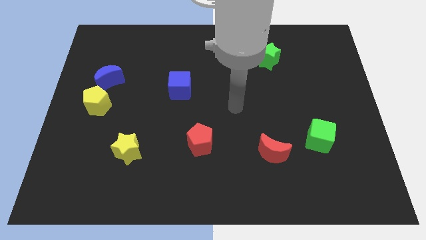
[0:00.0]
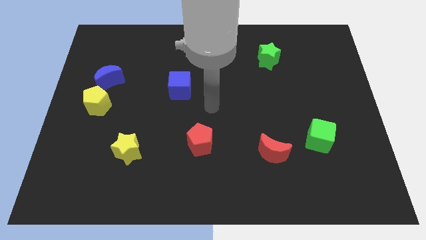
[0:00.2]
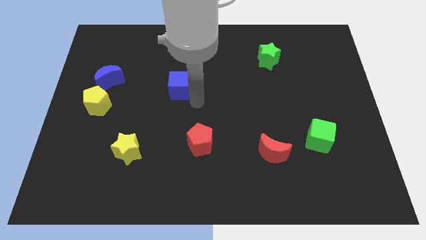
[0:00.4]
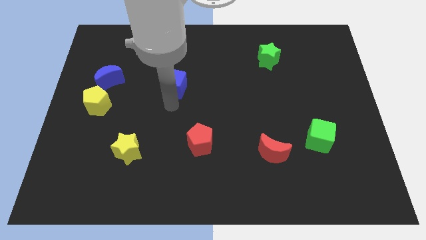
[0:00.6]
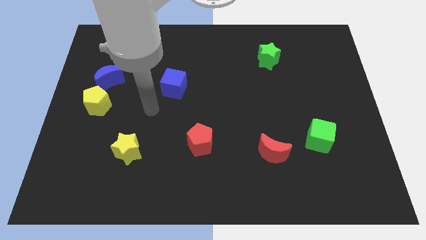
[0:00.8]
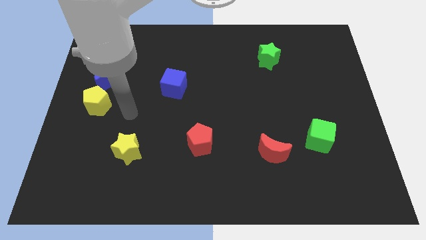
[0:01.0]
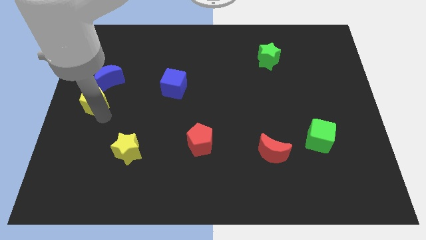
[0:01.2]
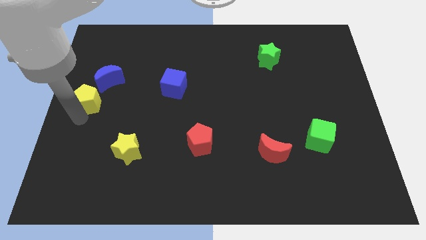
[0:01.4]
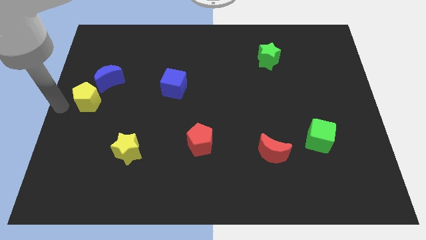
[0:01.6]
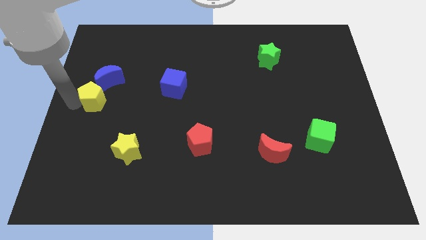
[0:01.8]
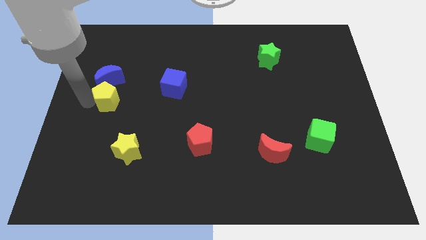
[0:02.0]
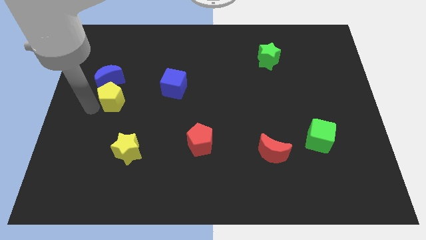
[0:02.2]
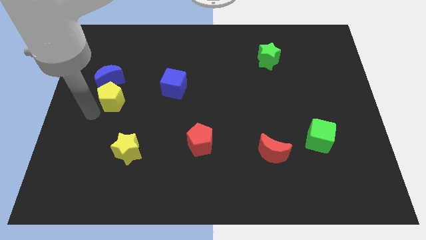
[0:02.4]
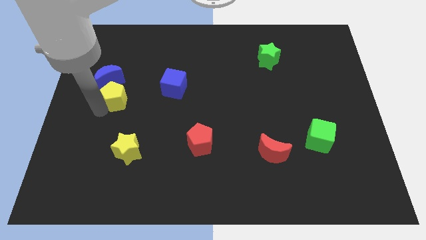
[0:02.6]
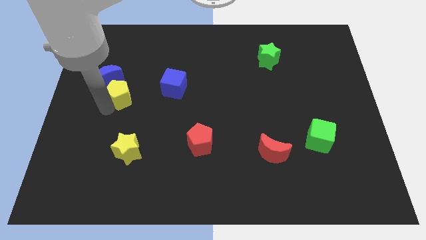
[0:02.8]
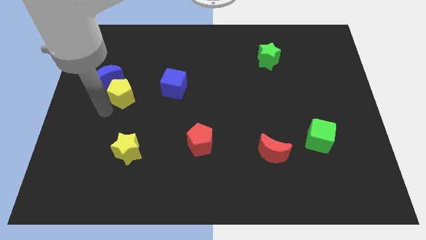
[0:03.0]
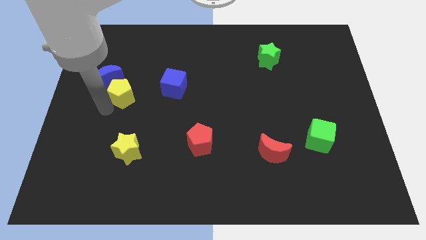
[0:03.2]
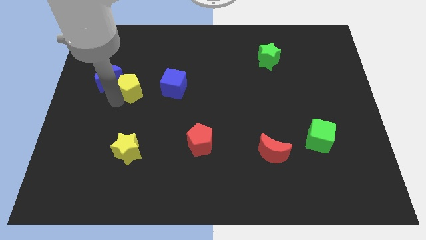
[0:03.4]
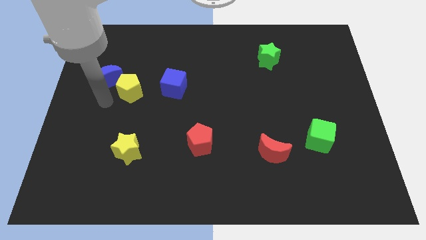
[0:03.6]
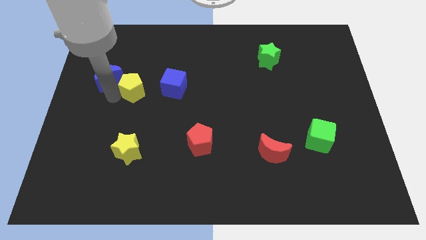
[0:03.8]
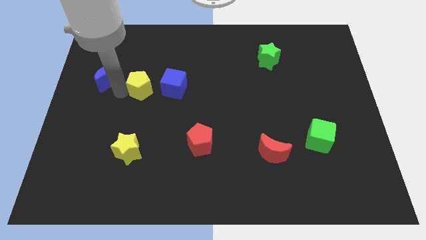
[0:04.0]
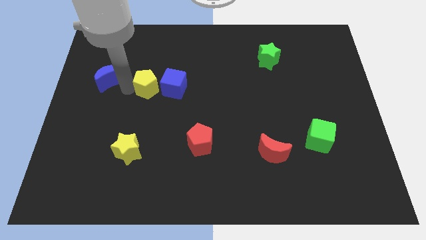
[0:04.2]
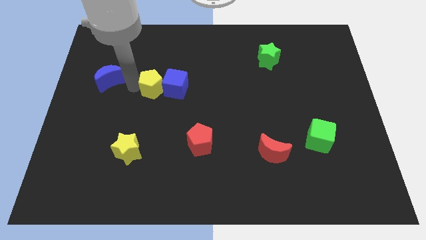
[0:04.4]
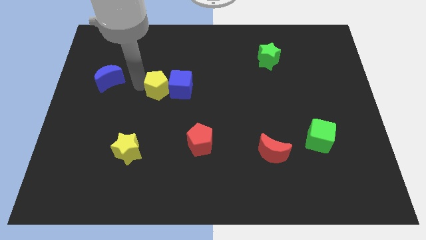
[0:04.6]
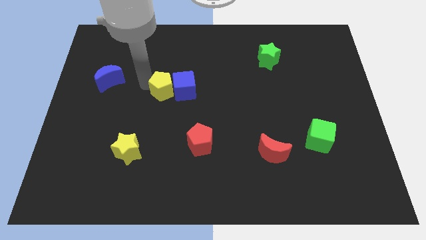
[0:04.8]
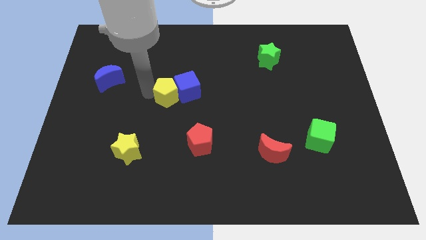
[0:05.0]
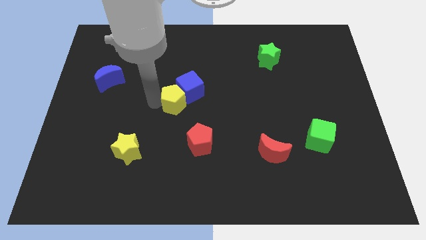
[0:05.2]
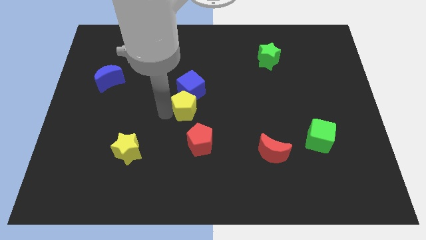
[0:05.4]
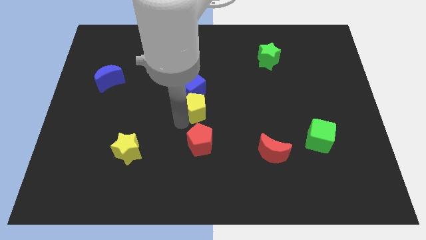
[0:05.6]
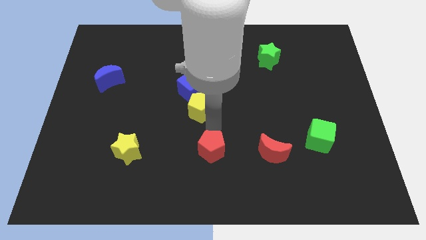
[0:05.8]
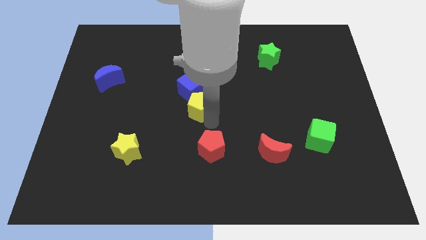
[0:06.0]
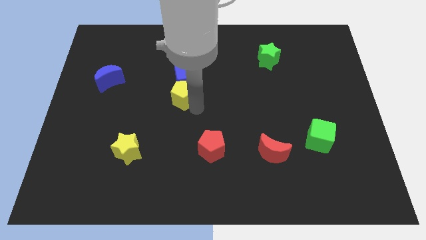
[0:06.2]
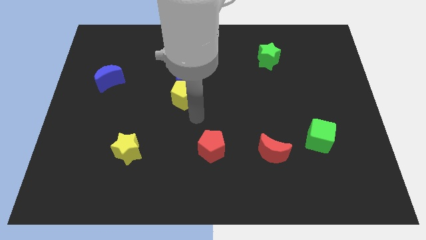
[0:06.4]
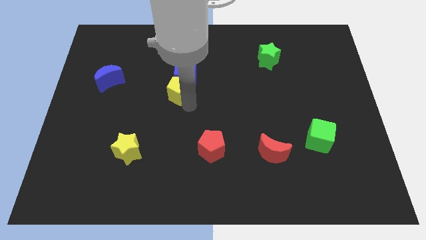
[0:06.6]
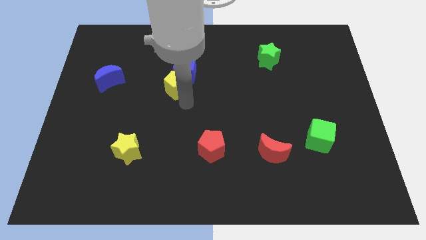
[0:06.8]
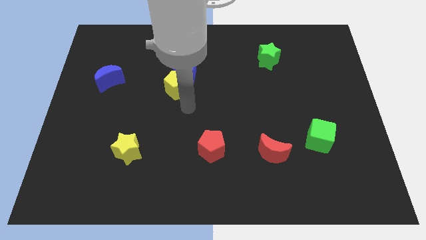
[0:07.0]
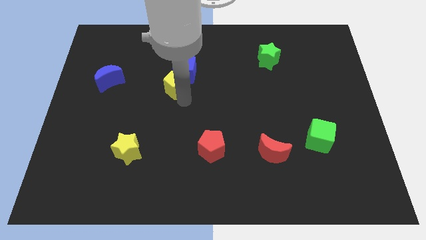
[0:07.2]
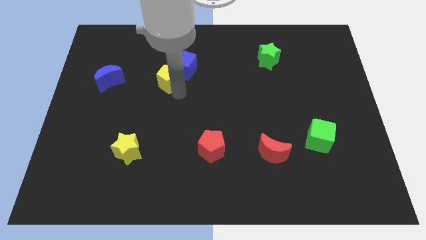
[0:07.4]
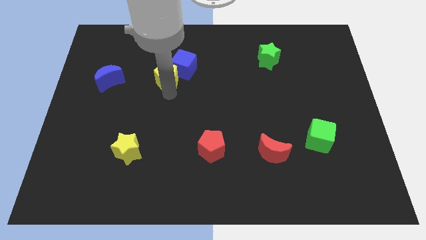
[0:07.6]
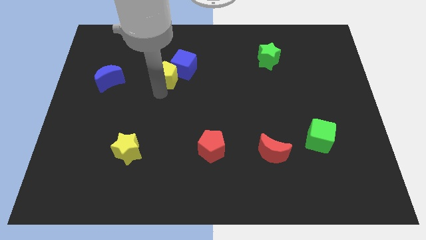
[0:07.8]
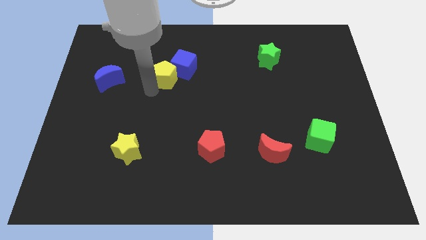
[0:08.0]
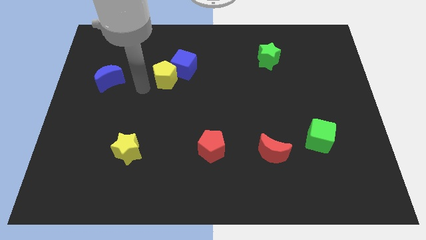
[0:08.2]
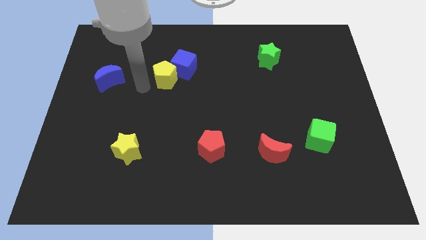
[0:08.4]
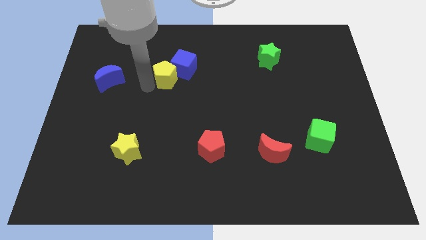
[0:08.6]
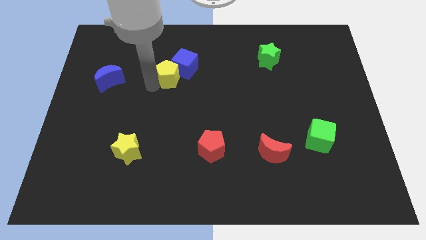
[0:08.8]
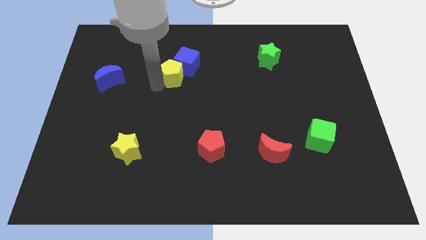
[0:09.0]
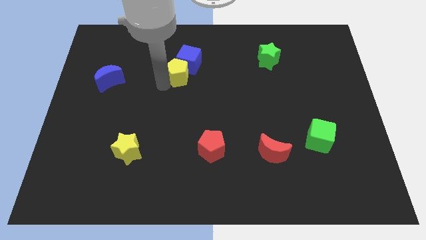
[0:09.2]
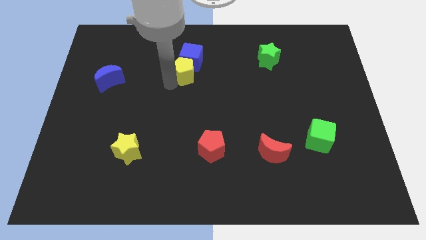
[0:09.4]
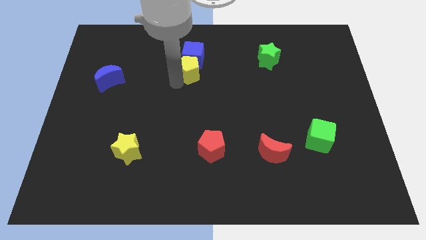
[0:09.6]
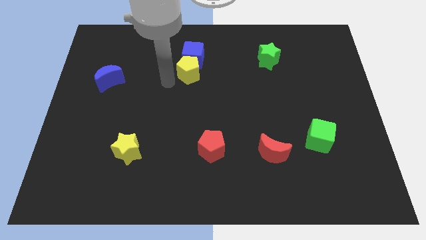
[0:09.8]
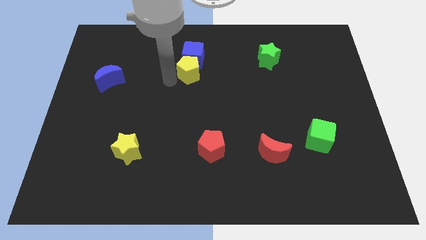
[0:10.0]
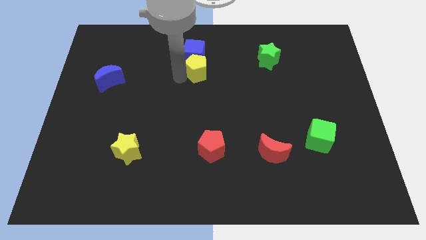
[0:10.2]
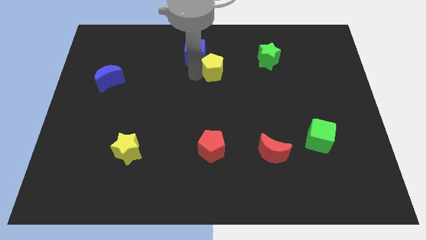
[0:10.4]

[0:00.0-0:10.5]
slide the yellow pentagon just left of the green star

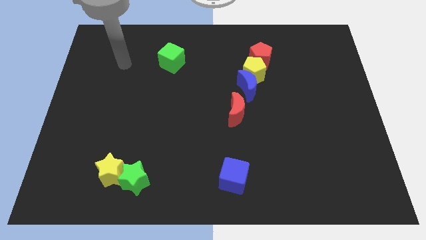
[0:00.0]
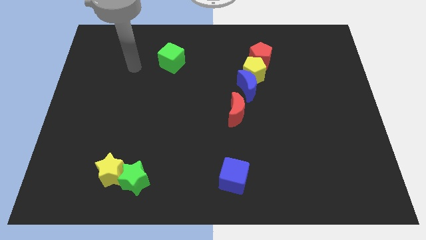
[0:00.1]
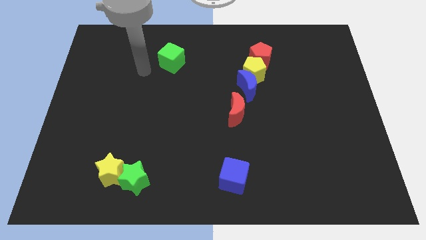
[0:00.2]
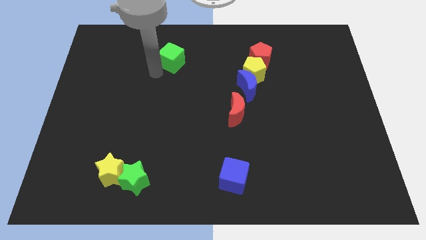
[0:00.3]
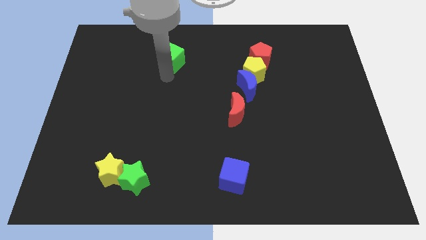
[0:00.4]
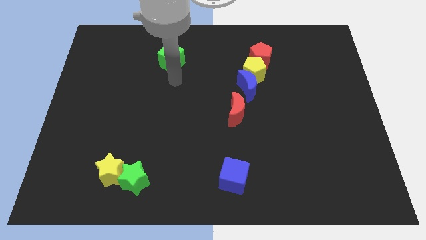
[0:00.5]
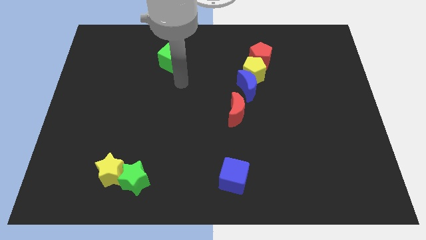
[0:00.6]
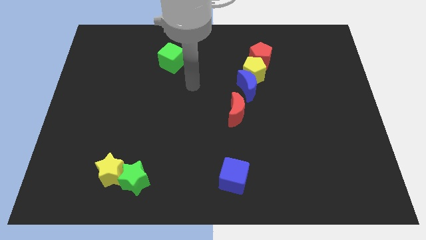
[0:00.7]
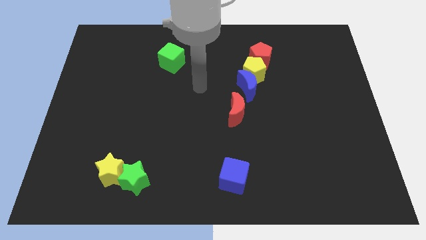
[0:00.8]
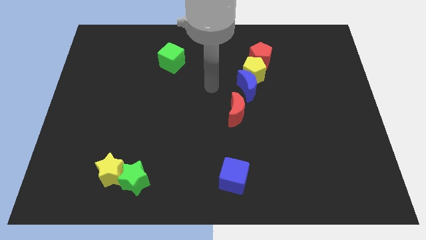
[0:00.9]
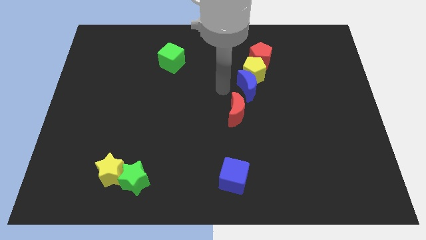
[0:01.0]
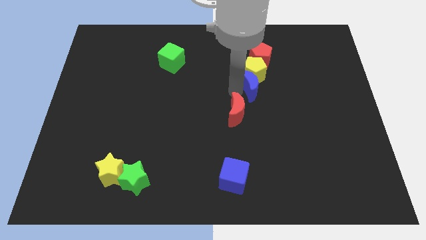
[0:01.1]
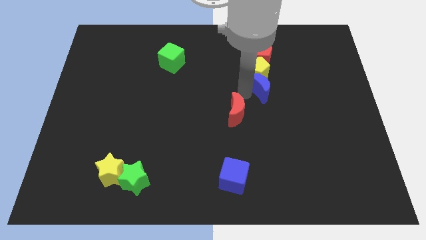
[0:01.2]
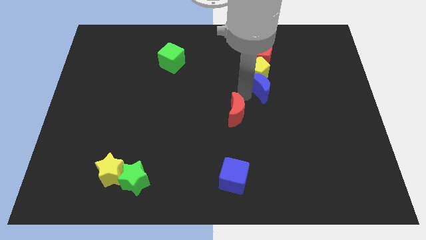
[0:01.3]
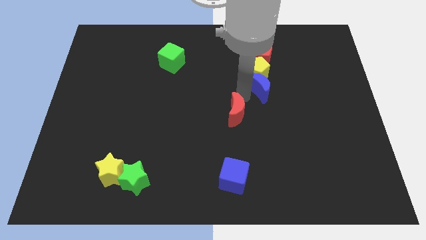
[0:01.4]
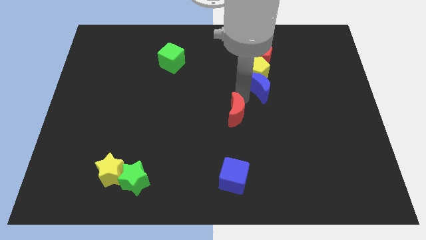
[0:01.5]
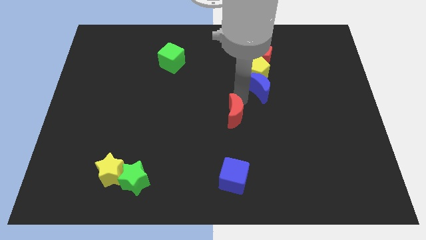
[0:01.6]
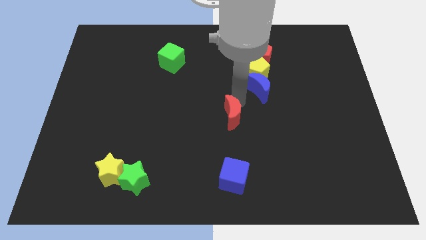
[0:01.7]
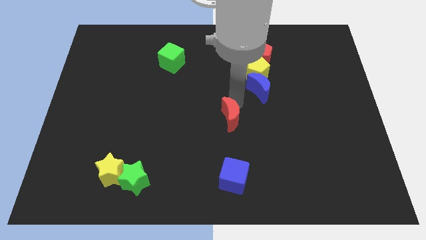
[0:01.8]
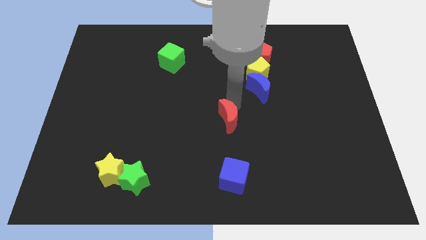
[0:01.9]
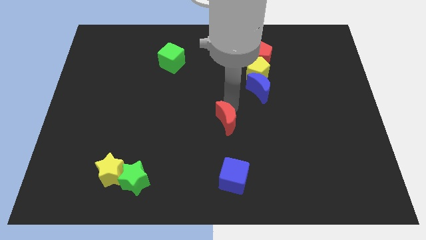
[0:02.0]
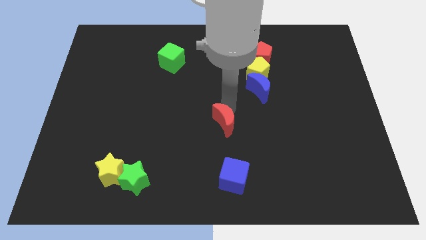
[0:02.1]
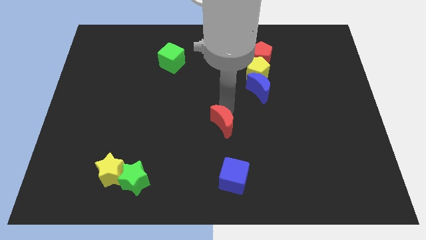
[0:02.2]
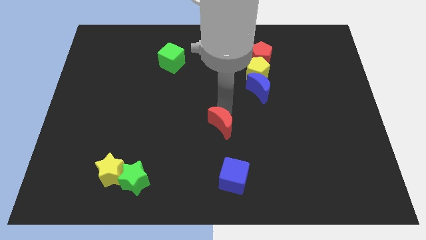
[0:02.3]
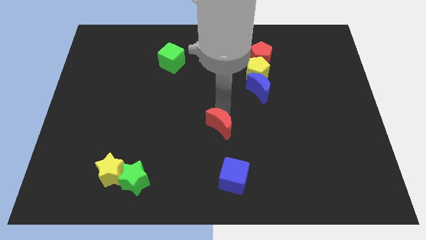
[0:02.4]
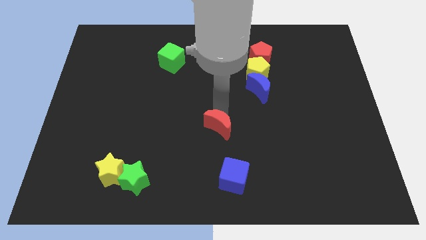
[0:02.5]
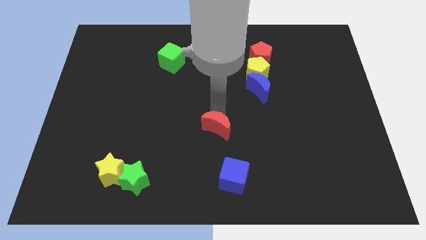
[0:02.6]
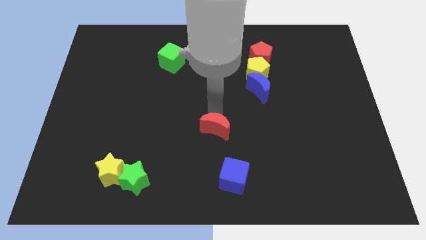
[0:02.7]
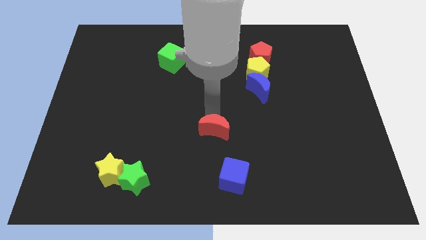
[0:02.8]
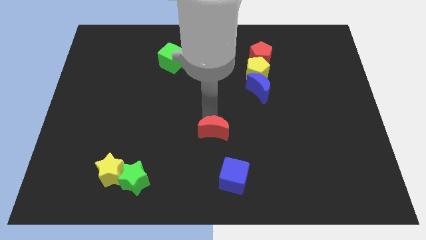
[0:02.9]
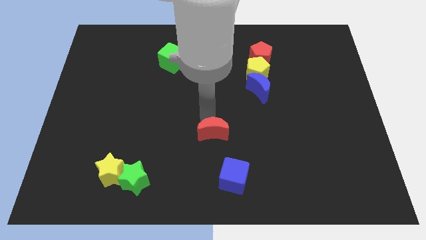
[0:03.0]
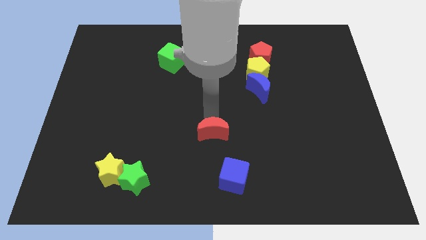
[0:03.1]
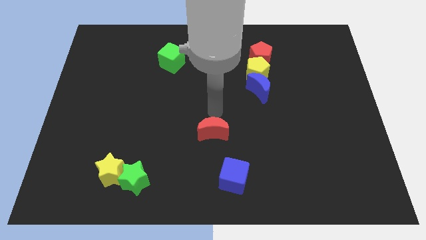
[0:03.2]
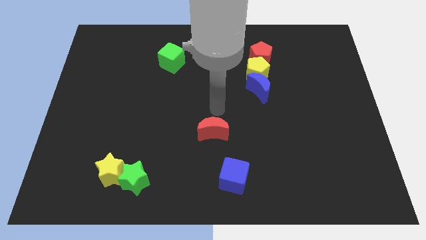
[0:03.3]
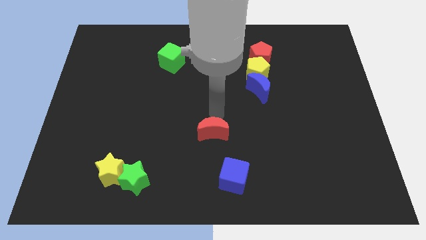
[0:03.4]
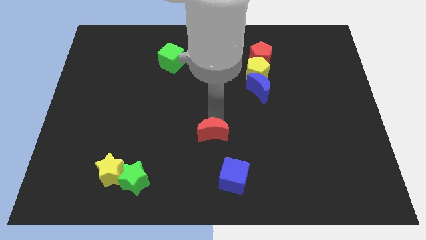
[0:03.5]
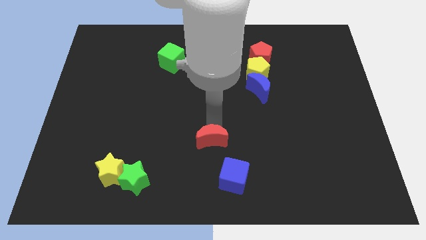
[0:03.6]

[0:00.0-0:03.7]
slide the red moon to the top left of the blue cube
